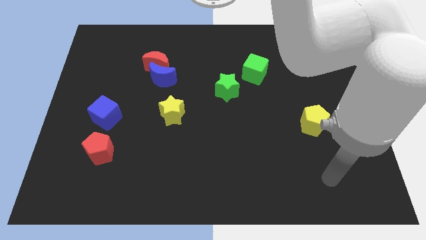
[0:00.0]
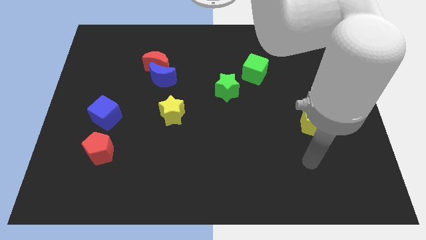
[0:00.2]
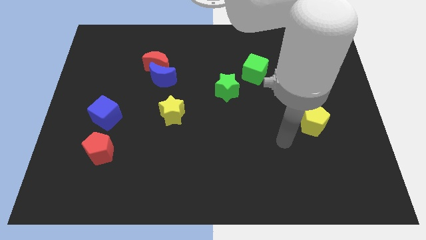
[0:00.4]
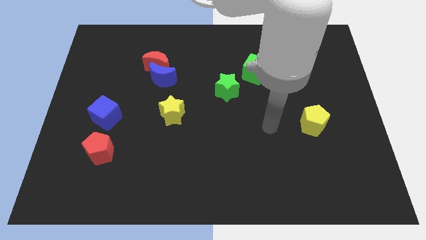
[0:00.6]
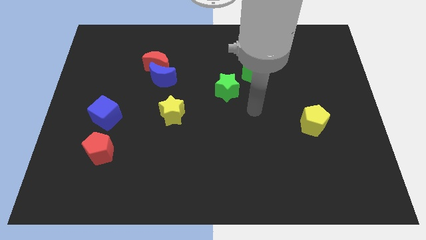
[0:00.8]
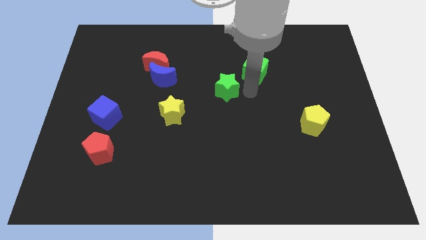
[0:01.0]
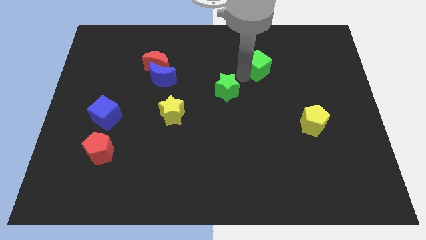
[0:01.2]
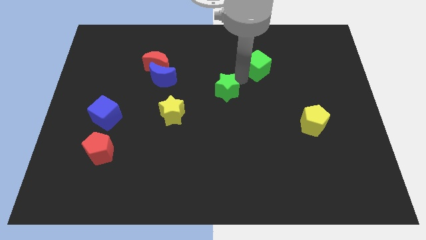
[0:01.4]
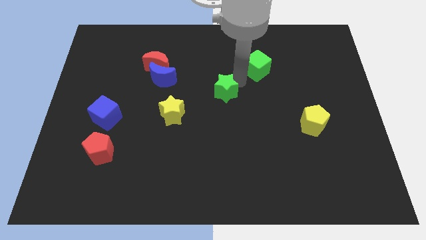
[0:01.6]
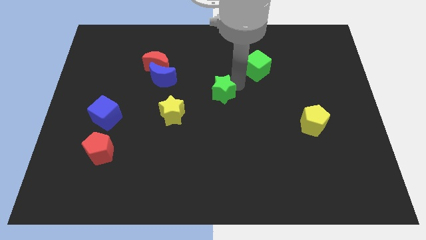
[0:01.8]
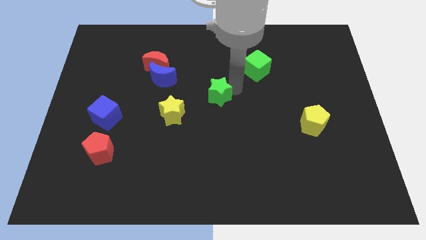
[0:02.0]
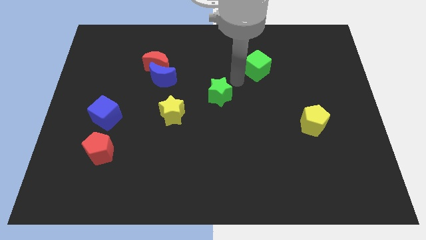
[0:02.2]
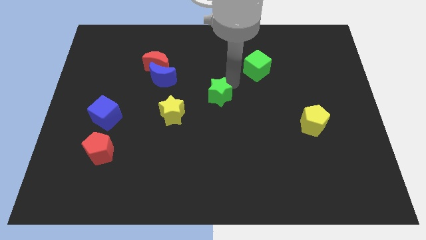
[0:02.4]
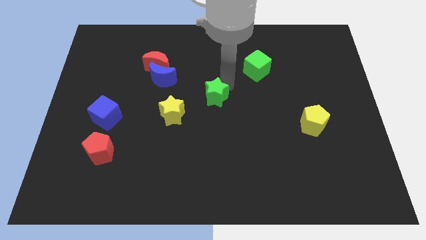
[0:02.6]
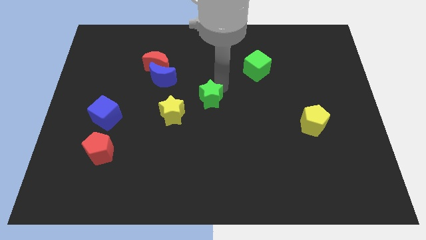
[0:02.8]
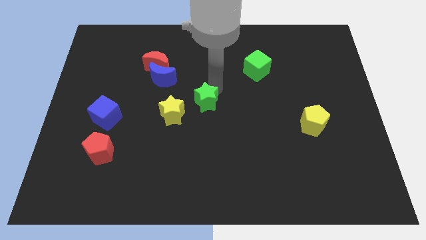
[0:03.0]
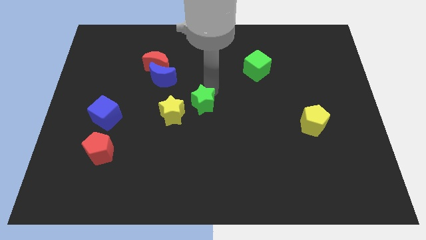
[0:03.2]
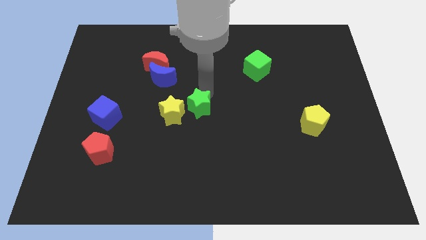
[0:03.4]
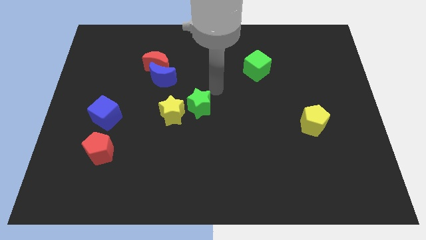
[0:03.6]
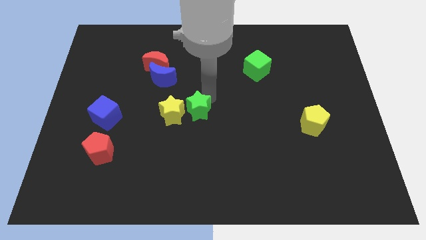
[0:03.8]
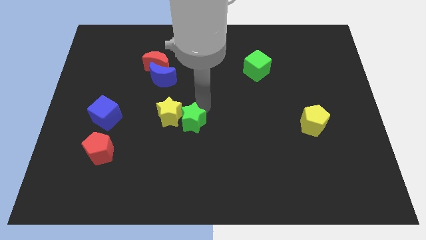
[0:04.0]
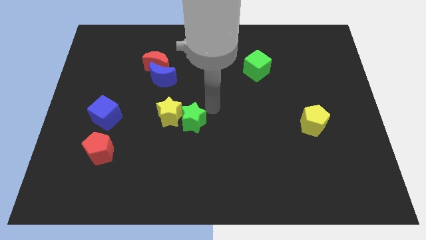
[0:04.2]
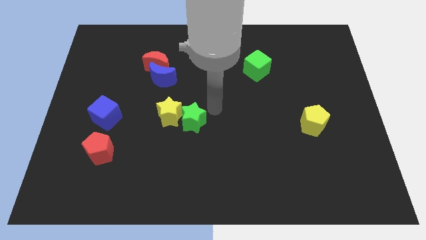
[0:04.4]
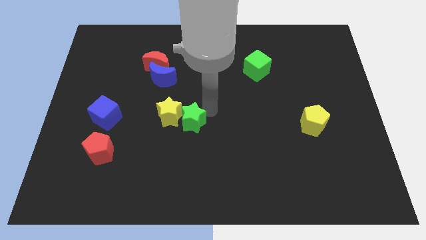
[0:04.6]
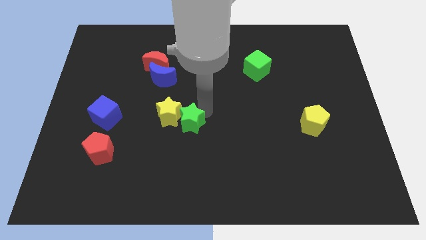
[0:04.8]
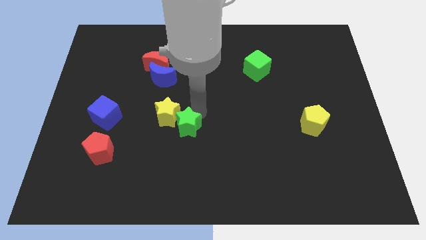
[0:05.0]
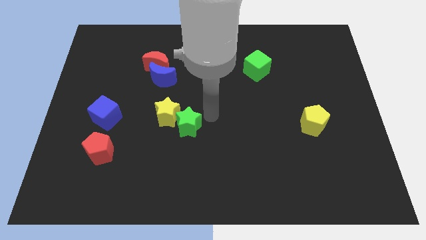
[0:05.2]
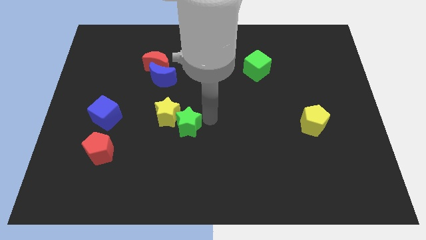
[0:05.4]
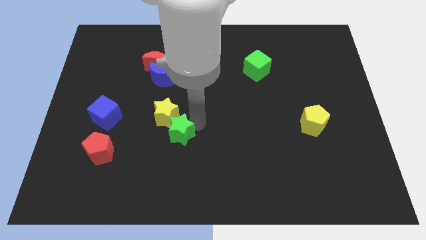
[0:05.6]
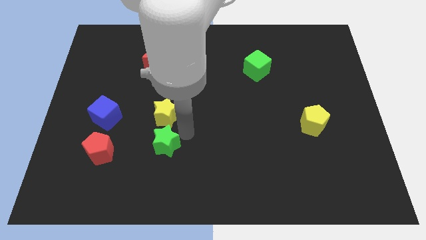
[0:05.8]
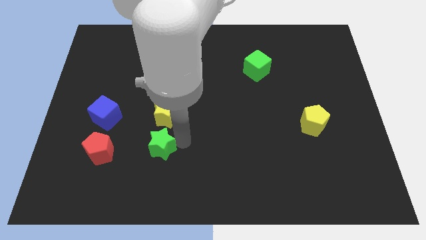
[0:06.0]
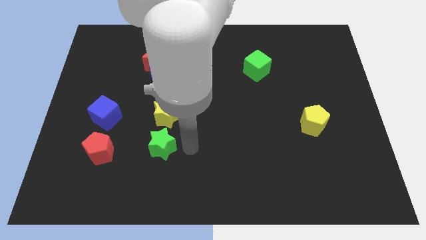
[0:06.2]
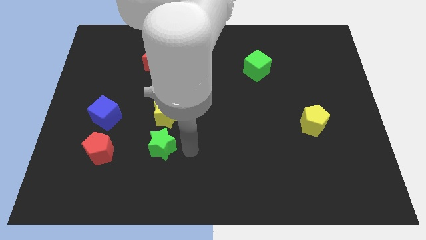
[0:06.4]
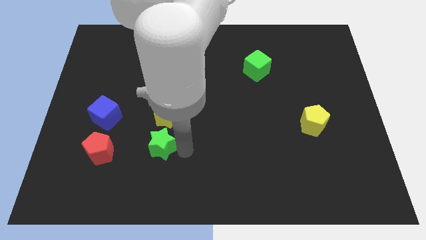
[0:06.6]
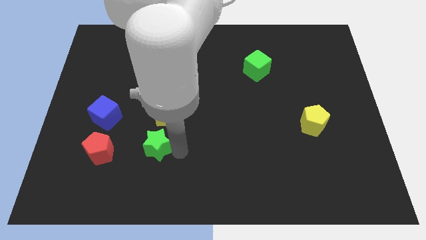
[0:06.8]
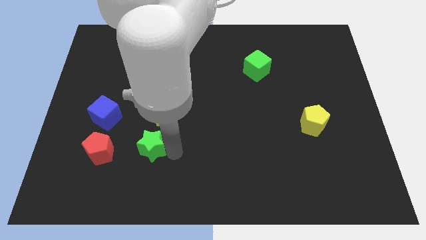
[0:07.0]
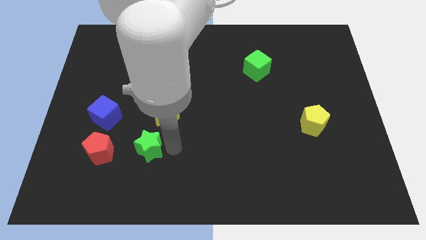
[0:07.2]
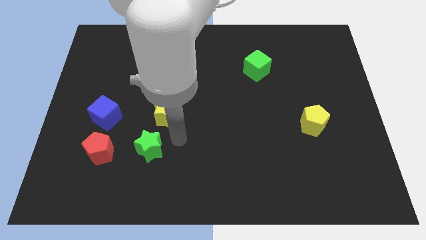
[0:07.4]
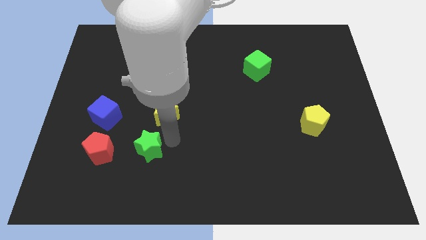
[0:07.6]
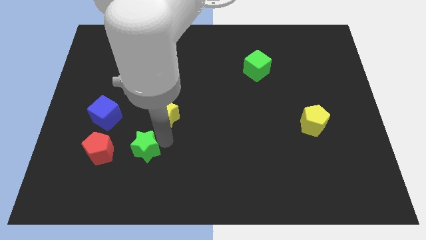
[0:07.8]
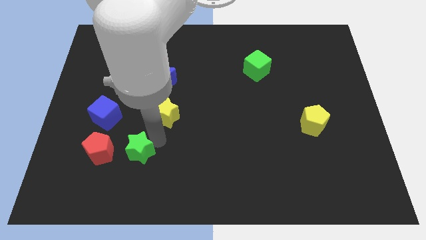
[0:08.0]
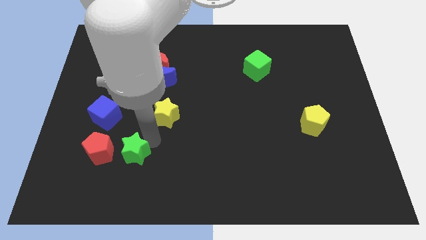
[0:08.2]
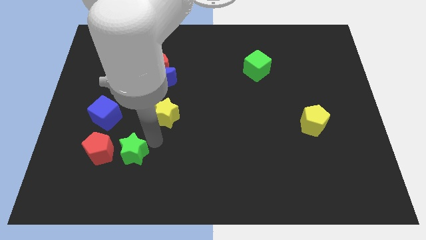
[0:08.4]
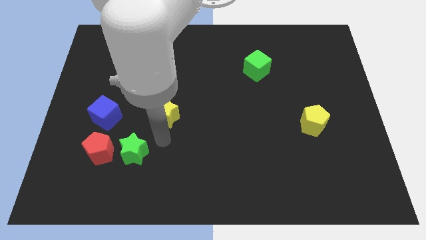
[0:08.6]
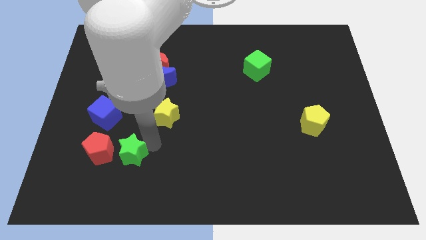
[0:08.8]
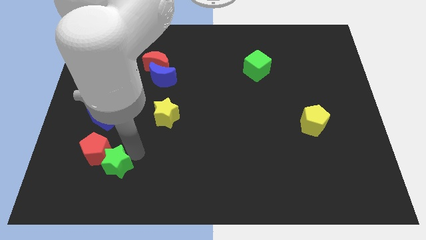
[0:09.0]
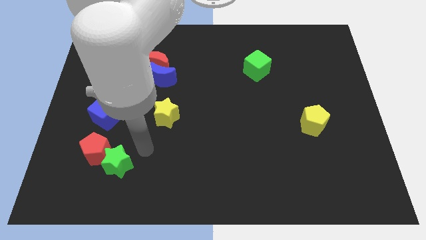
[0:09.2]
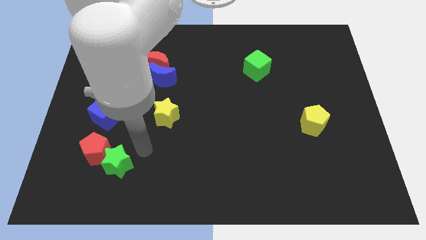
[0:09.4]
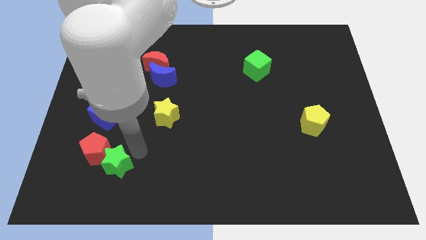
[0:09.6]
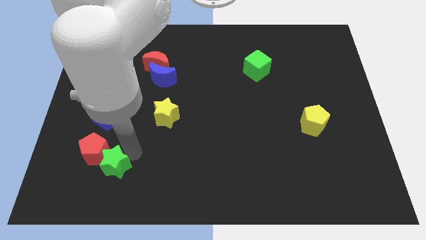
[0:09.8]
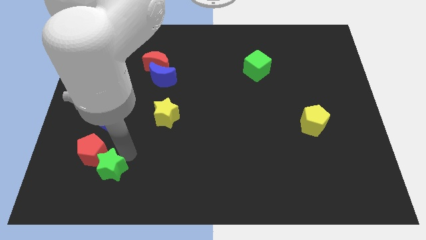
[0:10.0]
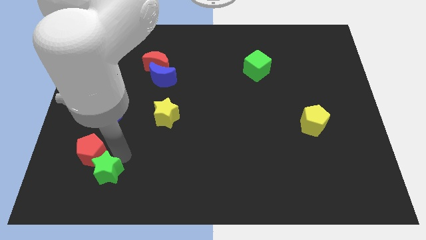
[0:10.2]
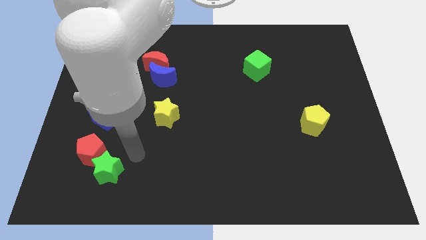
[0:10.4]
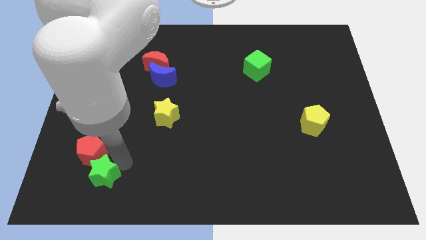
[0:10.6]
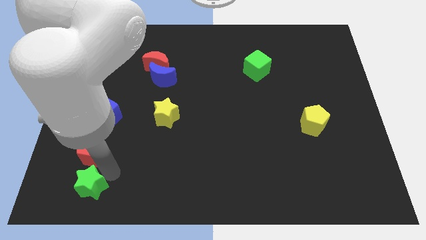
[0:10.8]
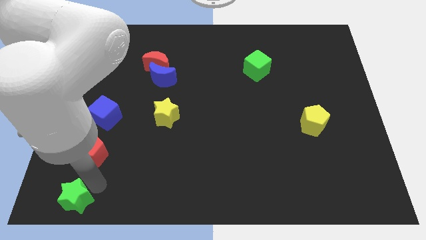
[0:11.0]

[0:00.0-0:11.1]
move the green star to the bottom left corner
